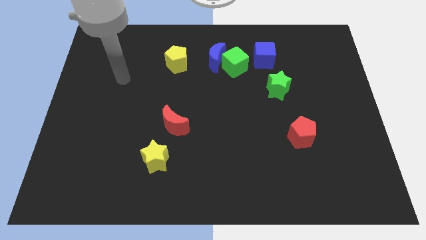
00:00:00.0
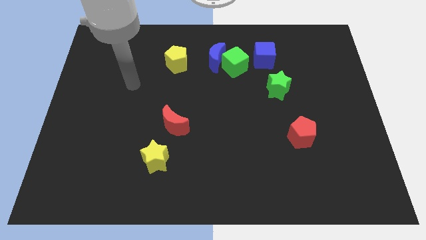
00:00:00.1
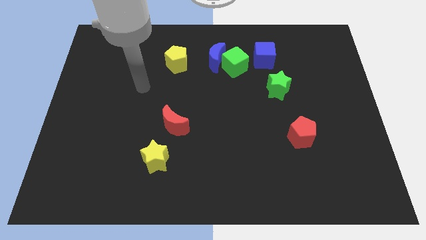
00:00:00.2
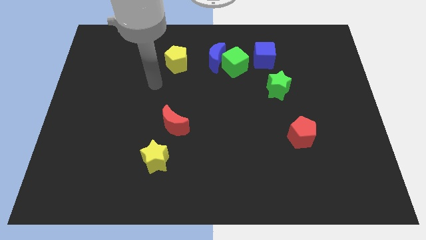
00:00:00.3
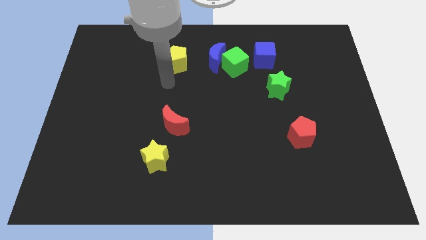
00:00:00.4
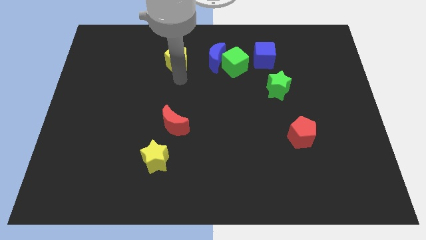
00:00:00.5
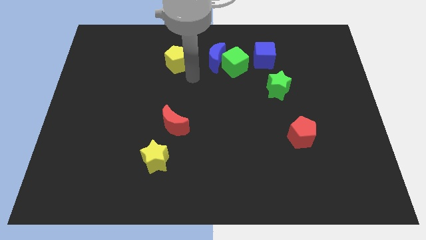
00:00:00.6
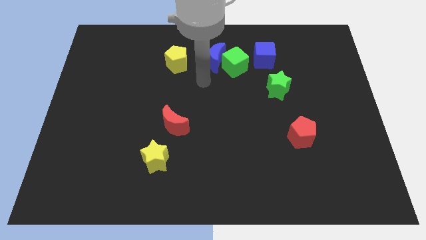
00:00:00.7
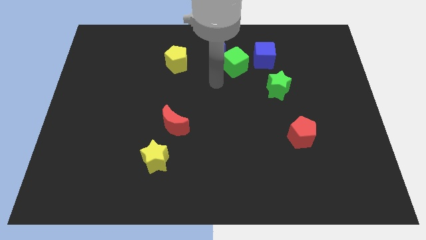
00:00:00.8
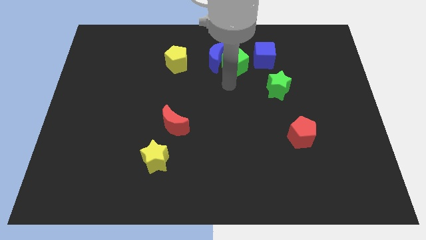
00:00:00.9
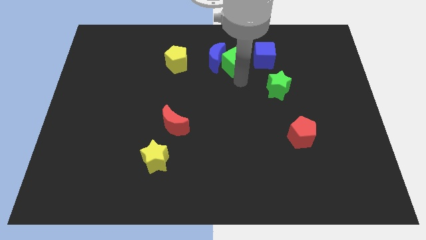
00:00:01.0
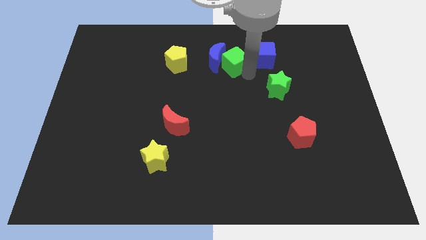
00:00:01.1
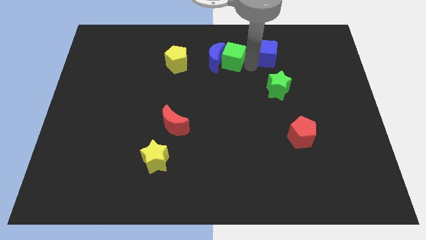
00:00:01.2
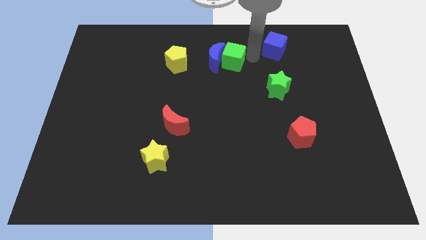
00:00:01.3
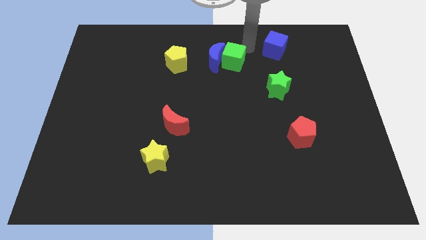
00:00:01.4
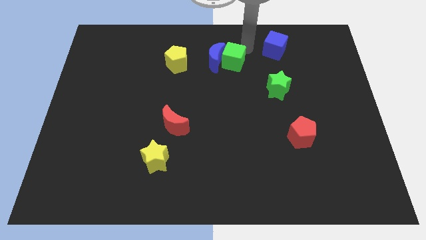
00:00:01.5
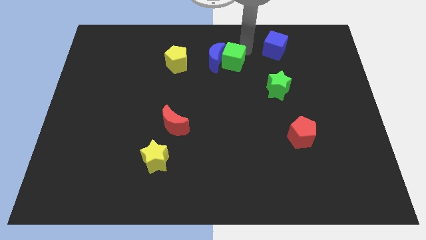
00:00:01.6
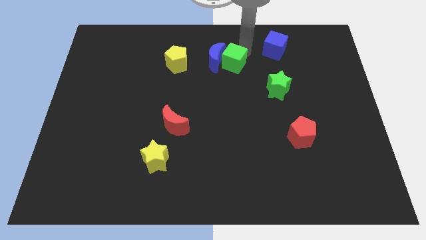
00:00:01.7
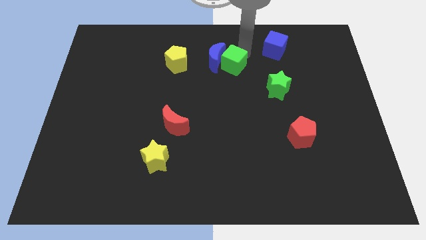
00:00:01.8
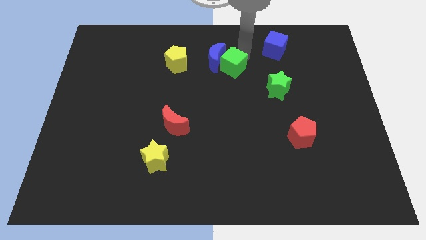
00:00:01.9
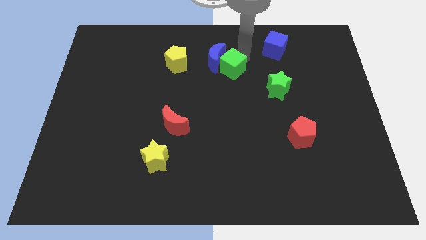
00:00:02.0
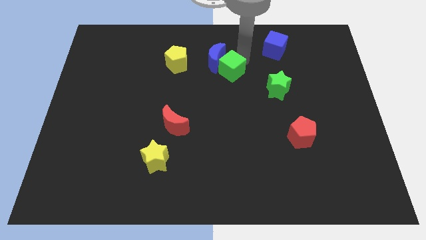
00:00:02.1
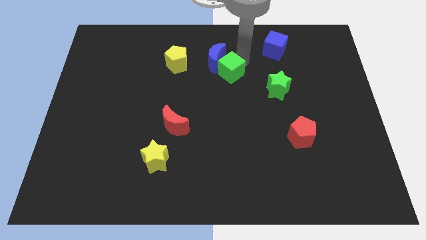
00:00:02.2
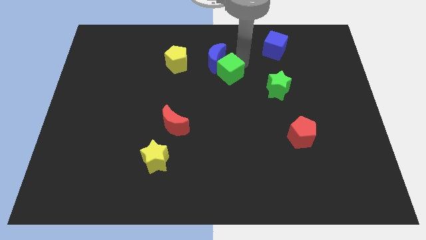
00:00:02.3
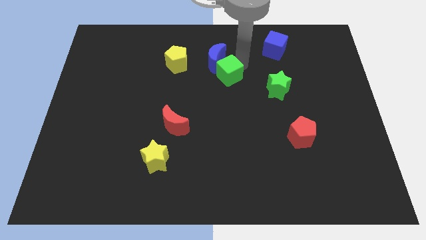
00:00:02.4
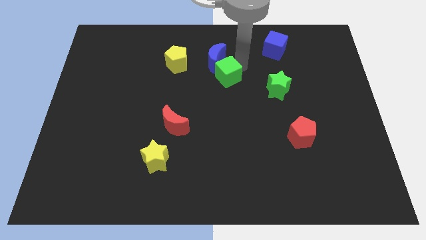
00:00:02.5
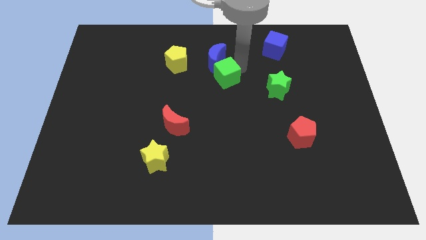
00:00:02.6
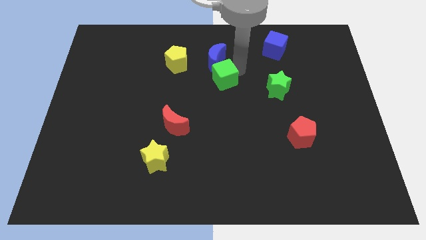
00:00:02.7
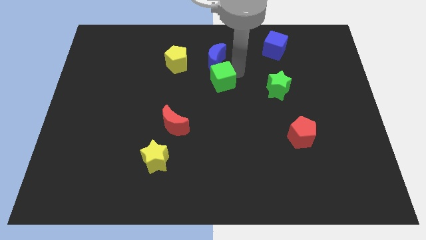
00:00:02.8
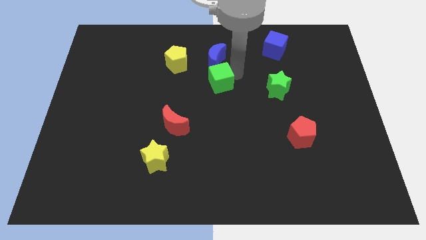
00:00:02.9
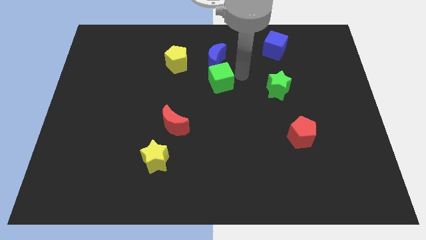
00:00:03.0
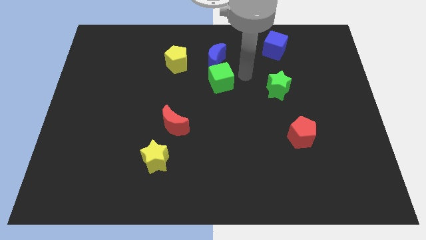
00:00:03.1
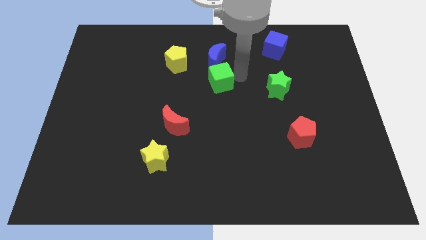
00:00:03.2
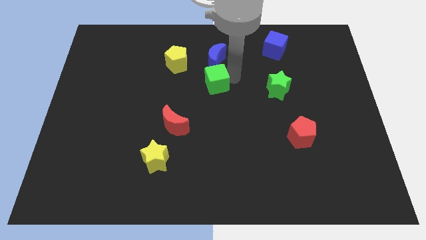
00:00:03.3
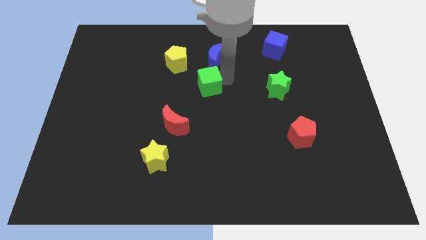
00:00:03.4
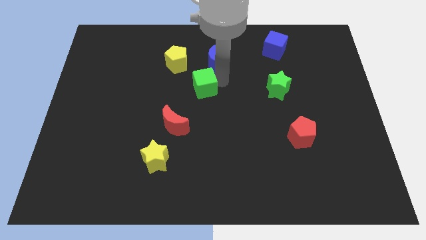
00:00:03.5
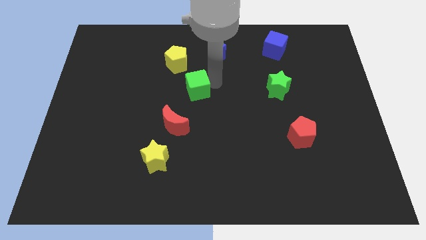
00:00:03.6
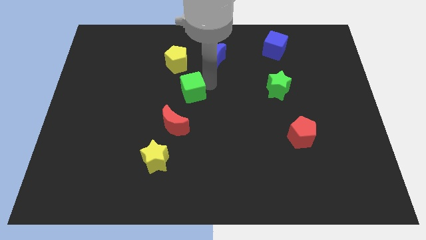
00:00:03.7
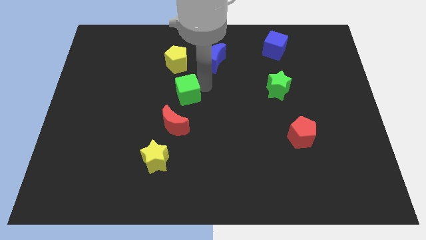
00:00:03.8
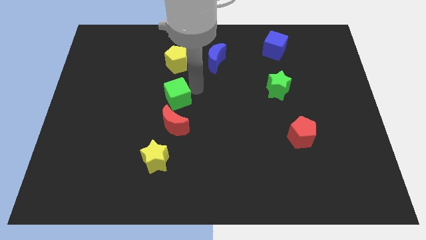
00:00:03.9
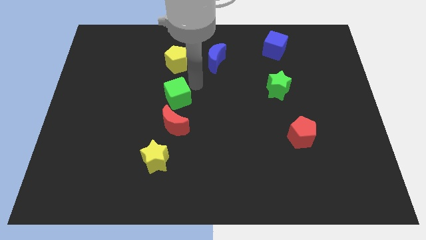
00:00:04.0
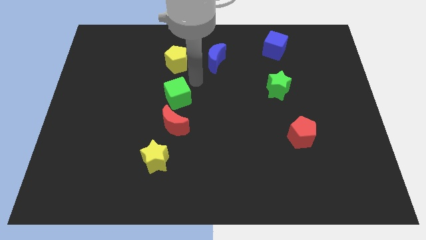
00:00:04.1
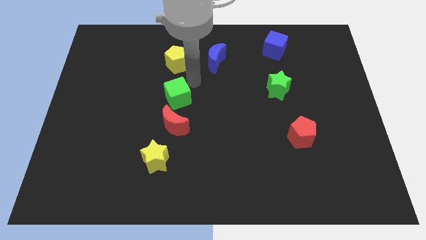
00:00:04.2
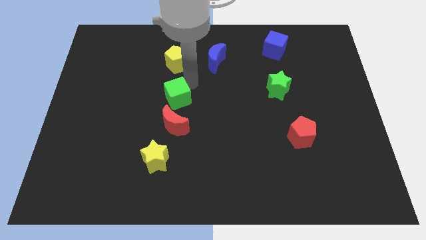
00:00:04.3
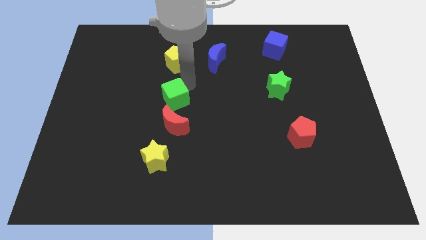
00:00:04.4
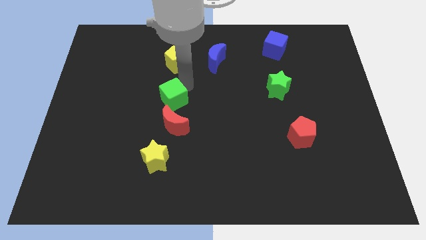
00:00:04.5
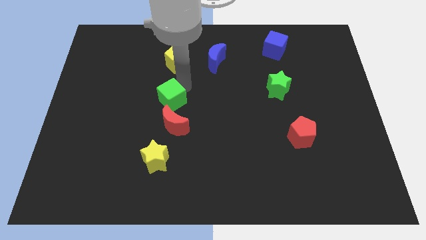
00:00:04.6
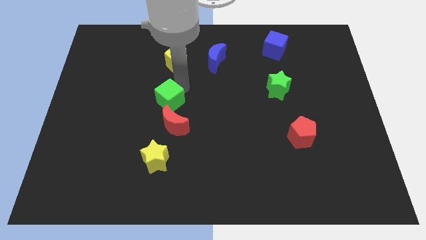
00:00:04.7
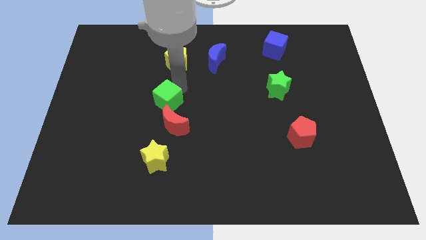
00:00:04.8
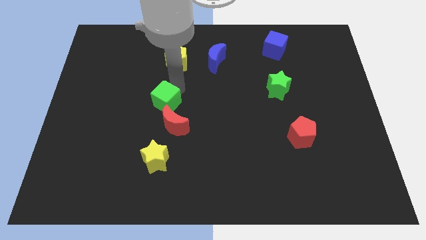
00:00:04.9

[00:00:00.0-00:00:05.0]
push the green cube downwards and to the left

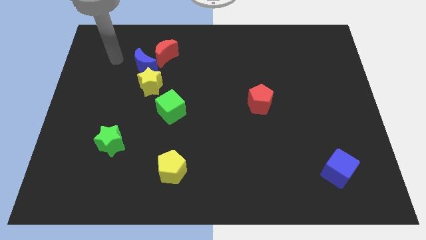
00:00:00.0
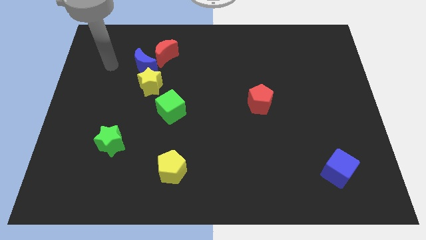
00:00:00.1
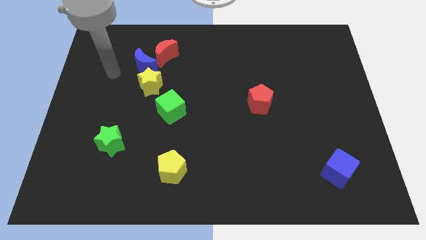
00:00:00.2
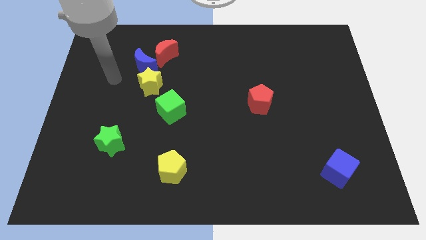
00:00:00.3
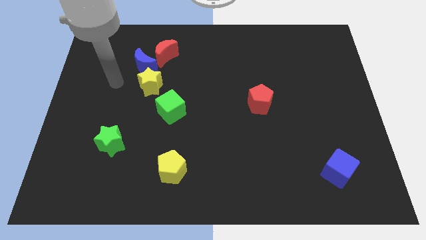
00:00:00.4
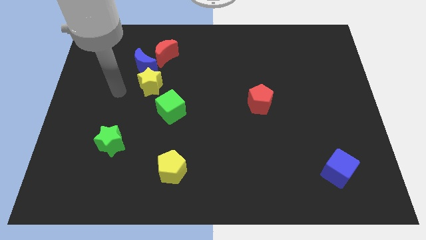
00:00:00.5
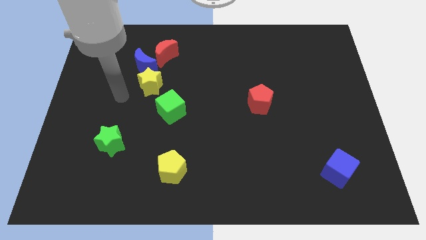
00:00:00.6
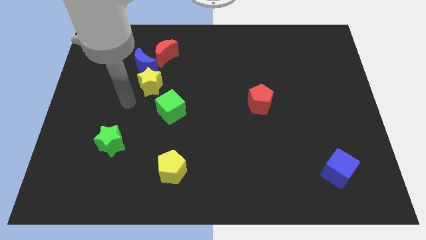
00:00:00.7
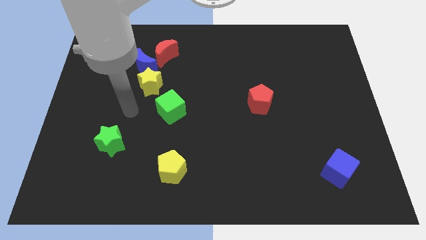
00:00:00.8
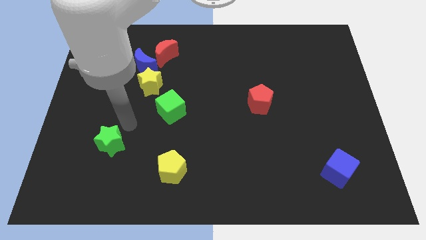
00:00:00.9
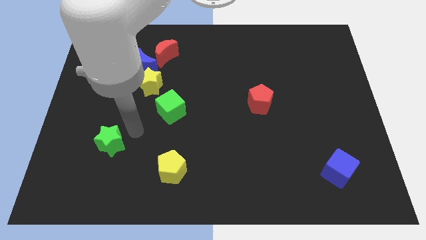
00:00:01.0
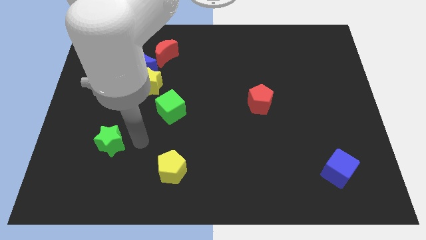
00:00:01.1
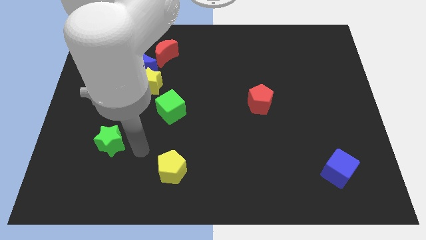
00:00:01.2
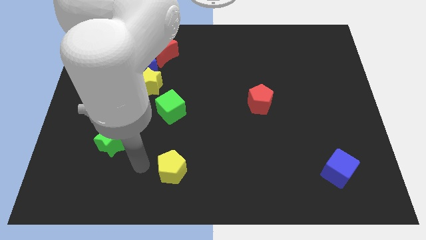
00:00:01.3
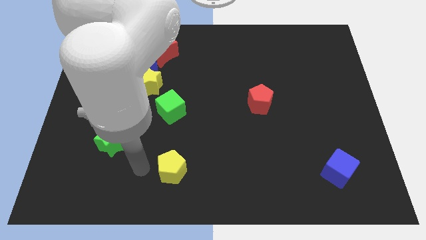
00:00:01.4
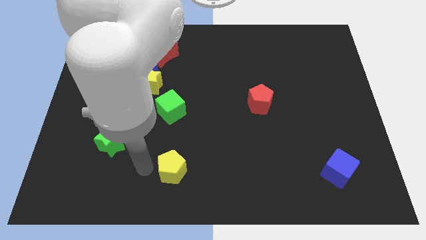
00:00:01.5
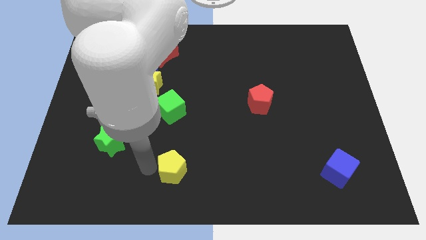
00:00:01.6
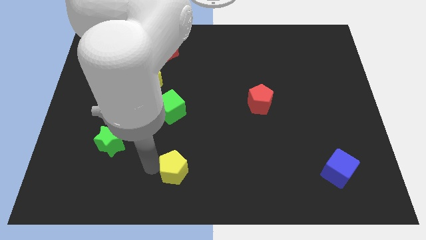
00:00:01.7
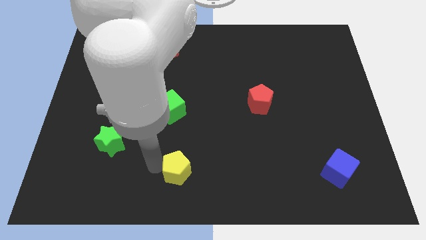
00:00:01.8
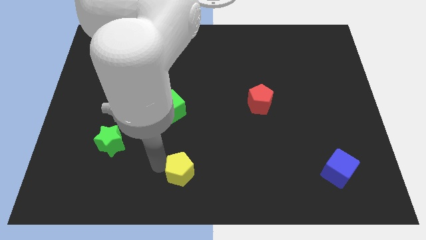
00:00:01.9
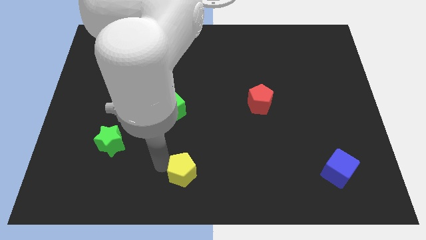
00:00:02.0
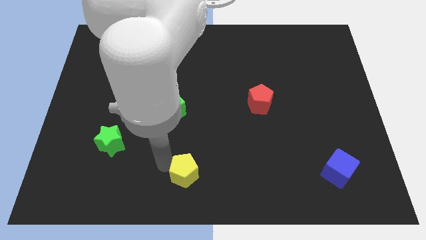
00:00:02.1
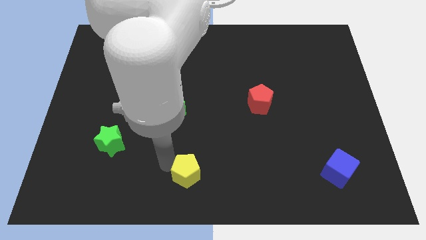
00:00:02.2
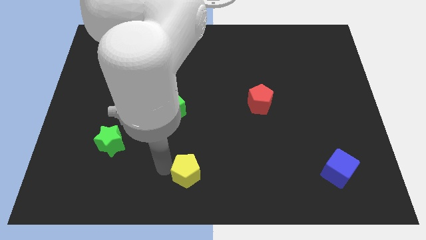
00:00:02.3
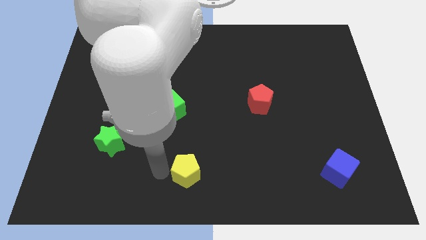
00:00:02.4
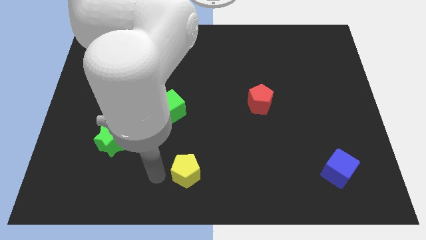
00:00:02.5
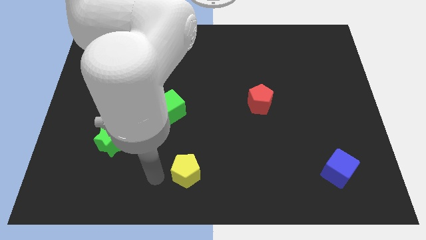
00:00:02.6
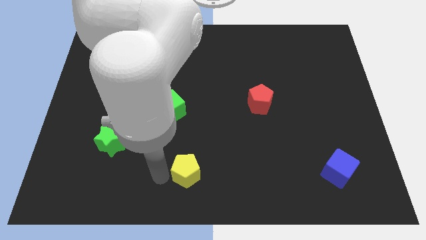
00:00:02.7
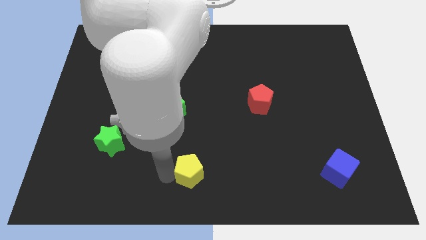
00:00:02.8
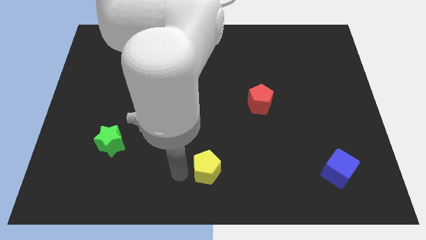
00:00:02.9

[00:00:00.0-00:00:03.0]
slightly push the yellow pentagon right
